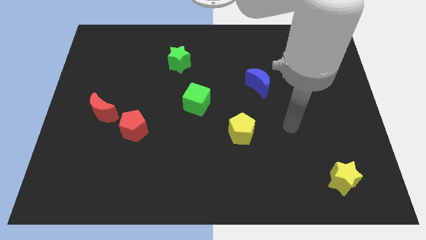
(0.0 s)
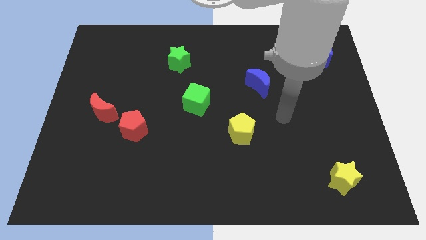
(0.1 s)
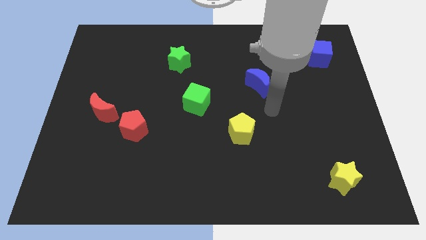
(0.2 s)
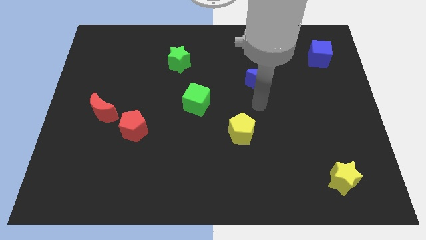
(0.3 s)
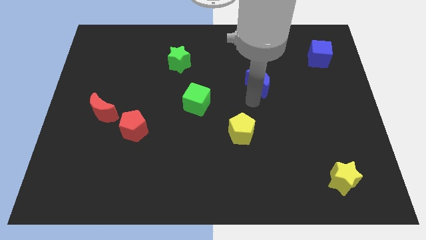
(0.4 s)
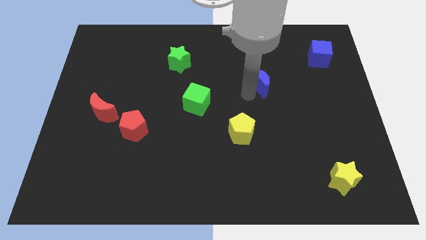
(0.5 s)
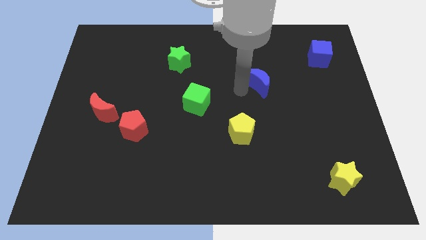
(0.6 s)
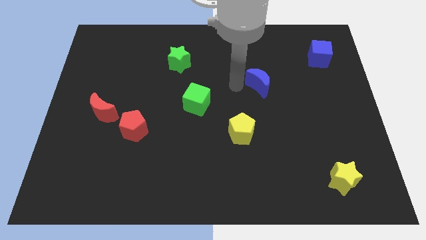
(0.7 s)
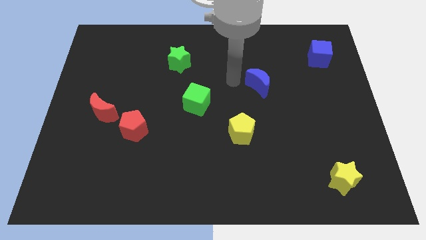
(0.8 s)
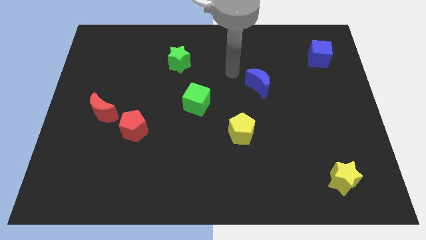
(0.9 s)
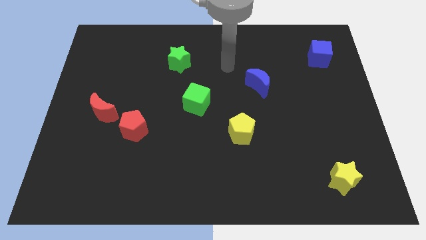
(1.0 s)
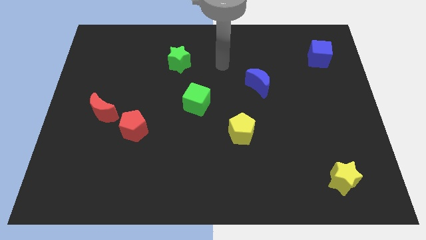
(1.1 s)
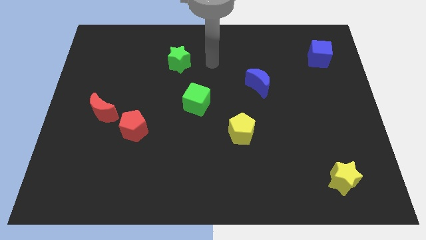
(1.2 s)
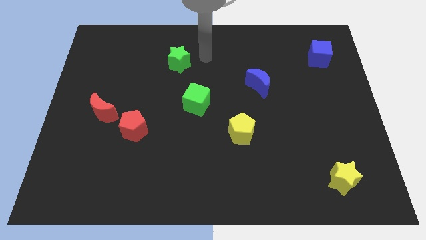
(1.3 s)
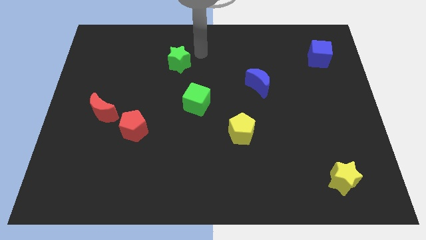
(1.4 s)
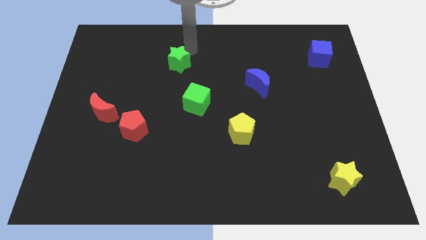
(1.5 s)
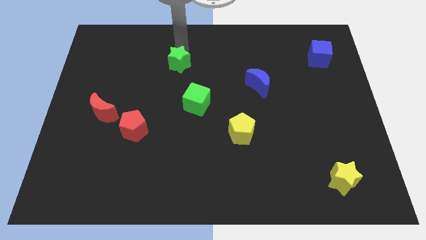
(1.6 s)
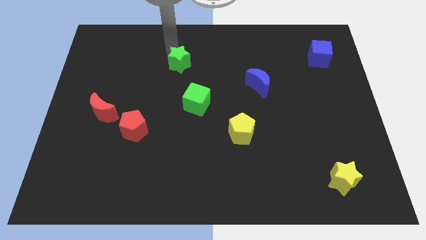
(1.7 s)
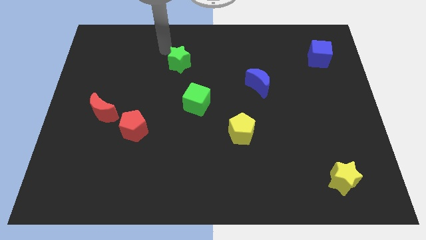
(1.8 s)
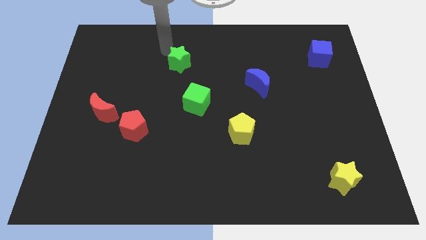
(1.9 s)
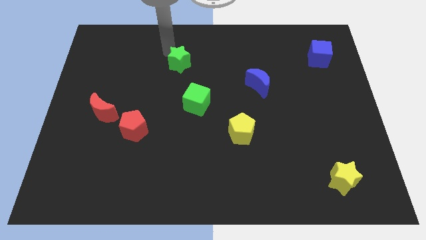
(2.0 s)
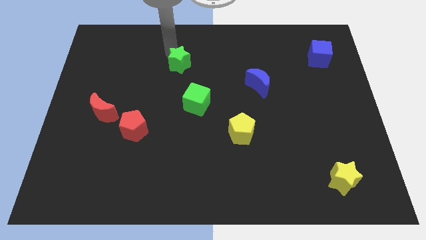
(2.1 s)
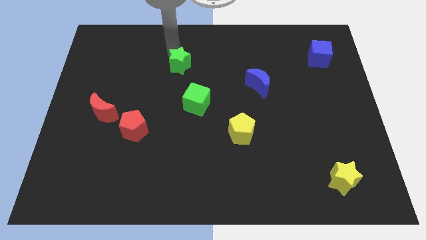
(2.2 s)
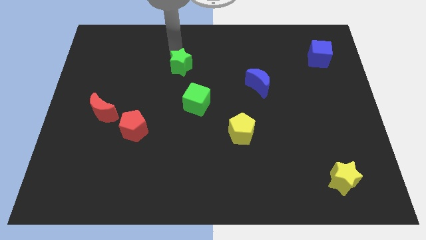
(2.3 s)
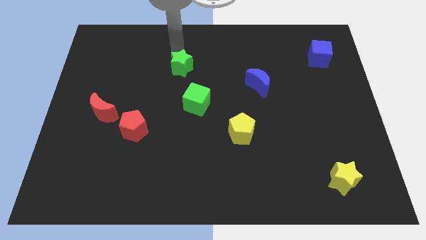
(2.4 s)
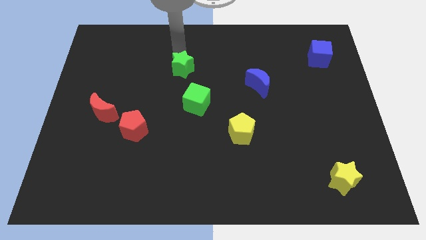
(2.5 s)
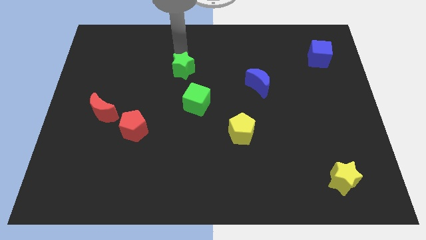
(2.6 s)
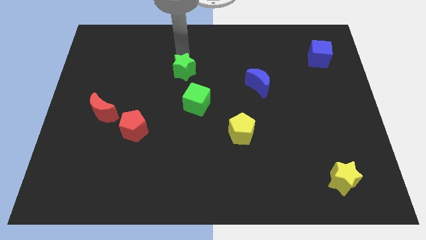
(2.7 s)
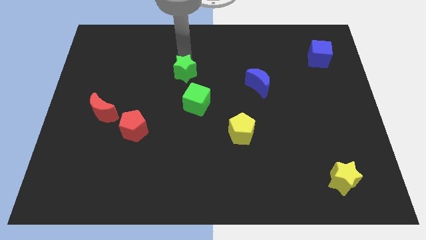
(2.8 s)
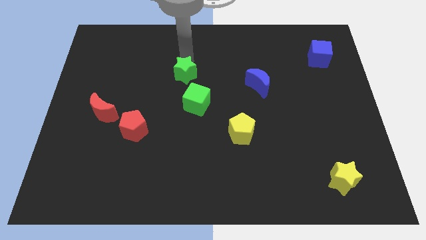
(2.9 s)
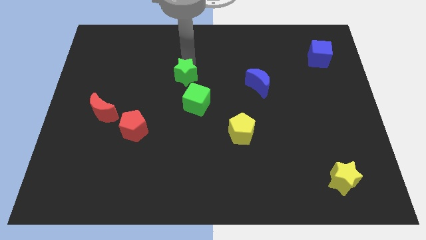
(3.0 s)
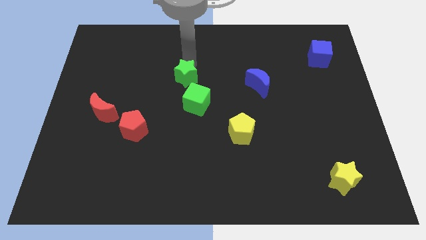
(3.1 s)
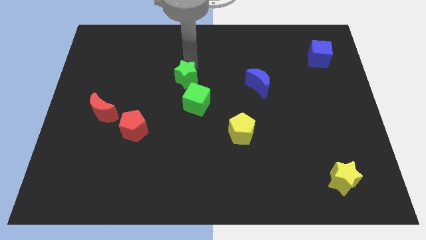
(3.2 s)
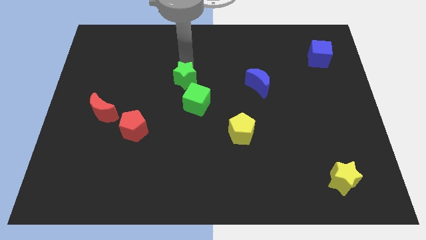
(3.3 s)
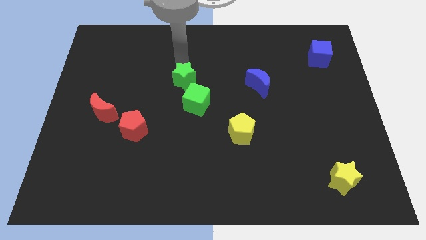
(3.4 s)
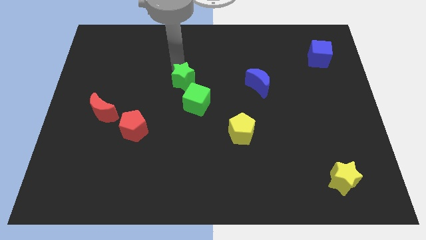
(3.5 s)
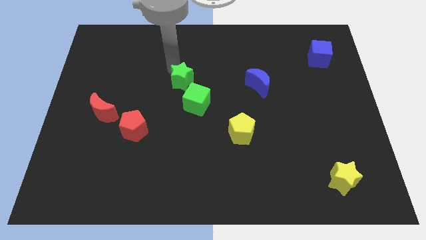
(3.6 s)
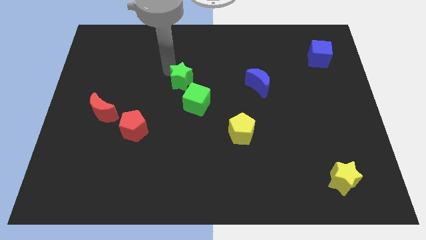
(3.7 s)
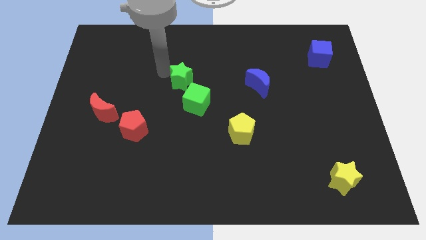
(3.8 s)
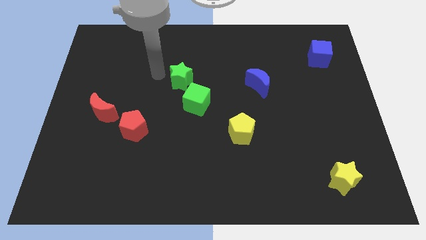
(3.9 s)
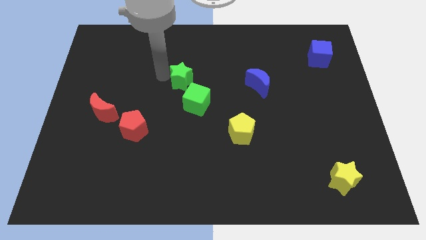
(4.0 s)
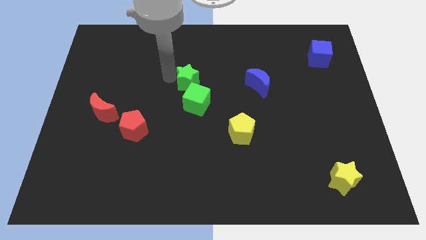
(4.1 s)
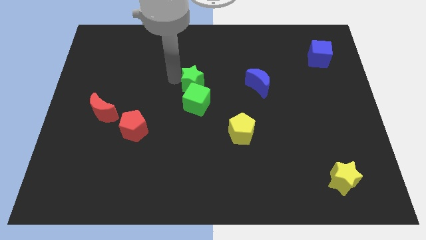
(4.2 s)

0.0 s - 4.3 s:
slide the green star a little downwards and to the right diagonally

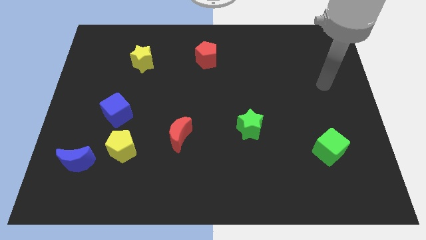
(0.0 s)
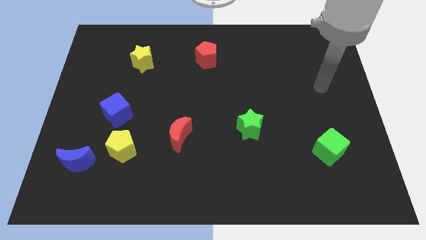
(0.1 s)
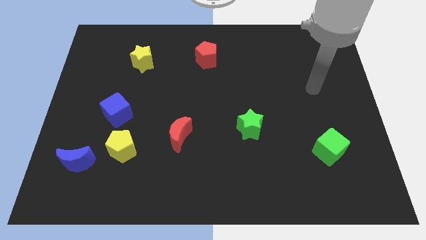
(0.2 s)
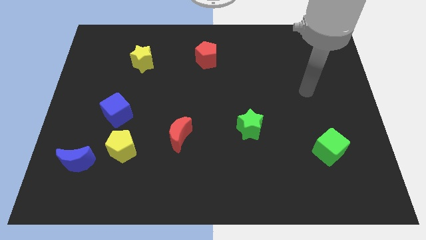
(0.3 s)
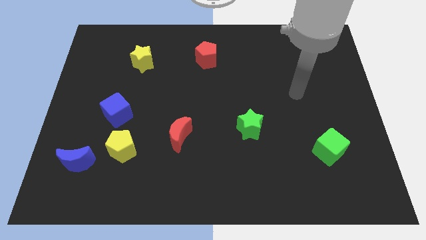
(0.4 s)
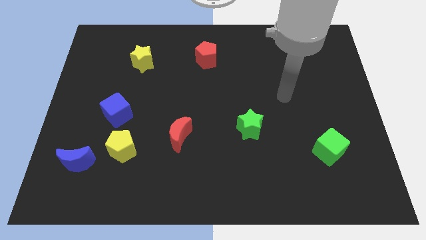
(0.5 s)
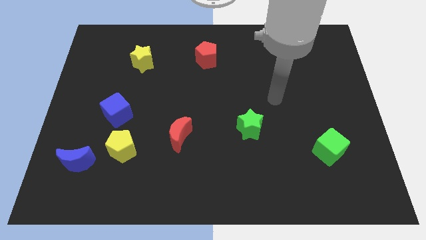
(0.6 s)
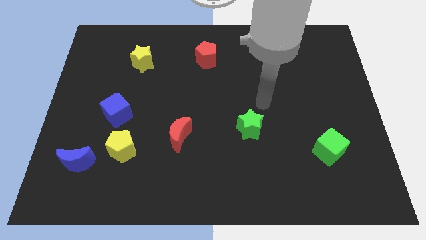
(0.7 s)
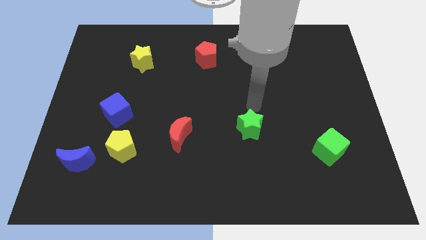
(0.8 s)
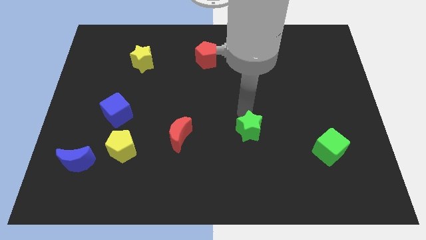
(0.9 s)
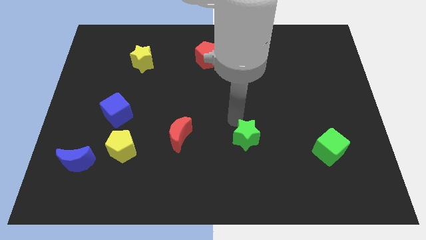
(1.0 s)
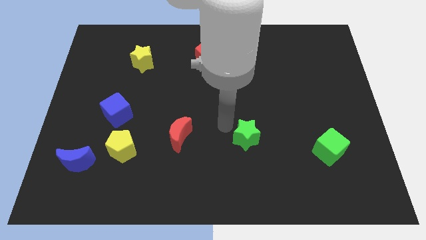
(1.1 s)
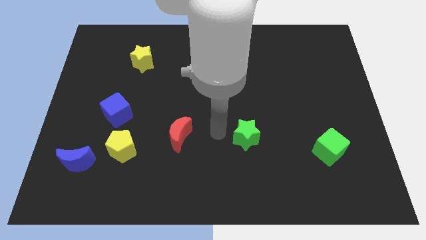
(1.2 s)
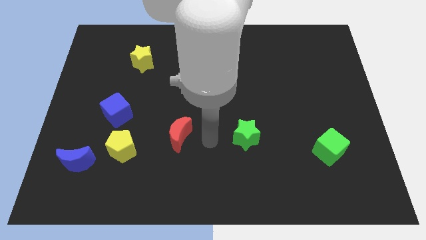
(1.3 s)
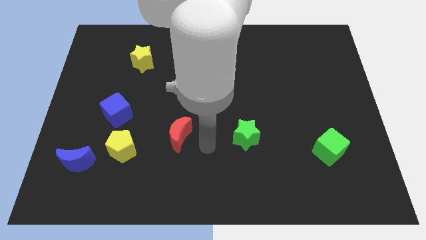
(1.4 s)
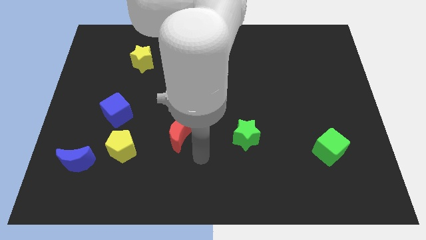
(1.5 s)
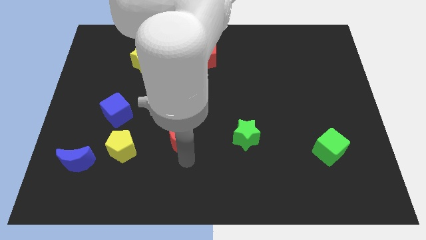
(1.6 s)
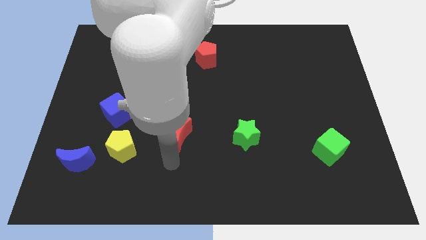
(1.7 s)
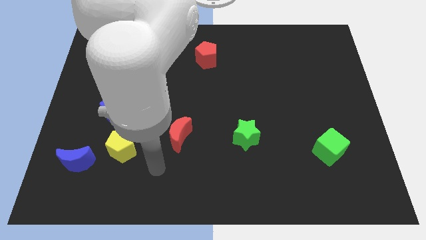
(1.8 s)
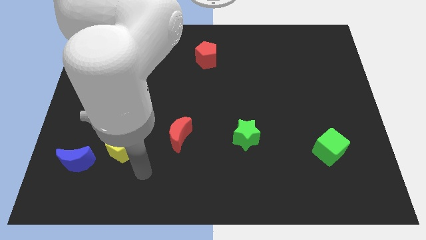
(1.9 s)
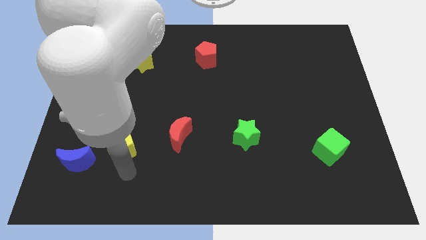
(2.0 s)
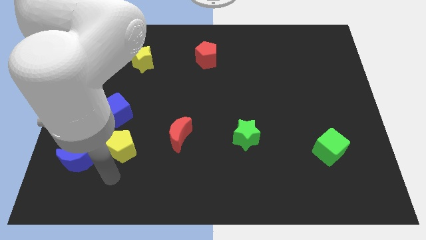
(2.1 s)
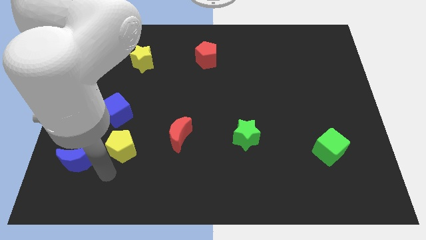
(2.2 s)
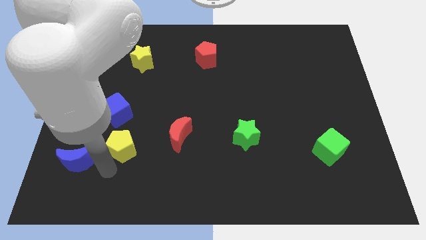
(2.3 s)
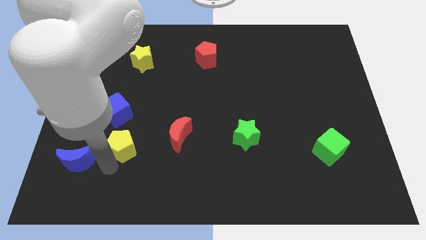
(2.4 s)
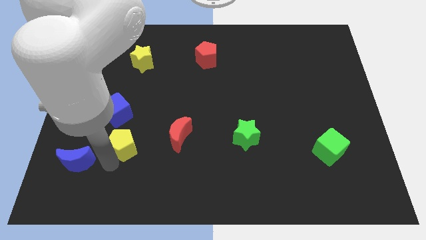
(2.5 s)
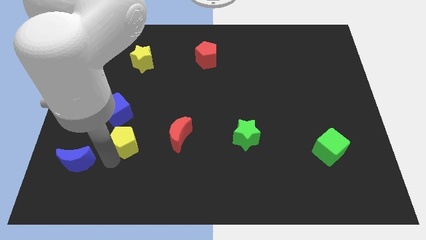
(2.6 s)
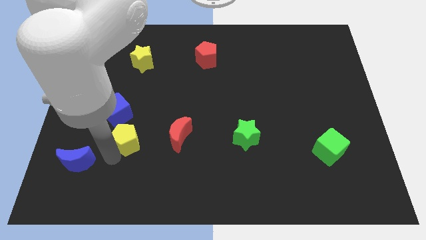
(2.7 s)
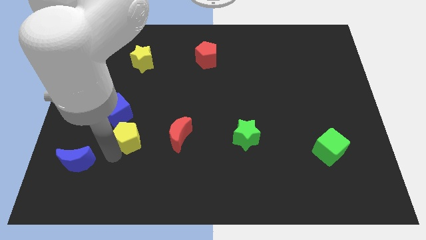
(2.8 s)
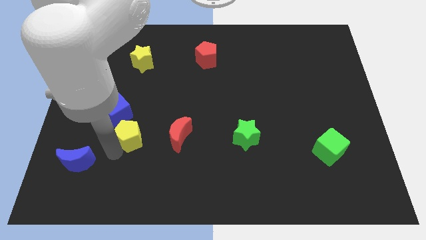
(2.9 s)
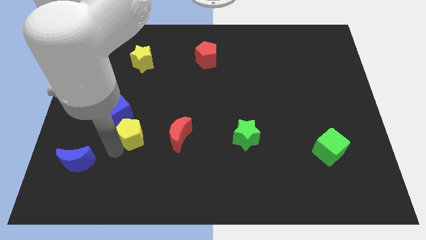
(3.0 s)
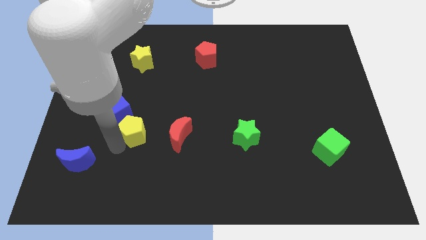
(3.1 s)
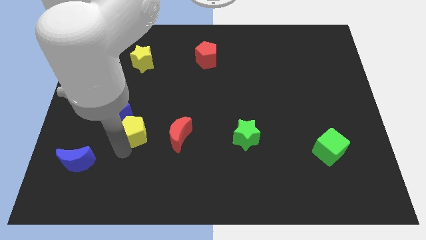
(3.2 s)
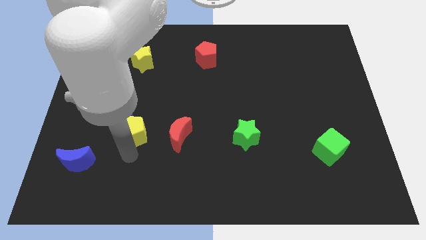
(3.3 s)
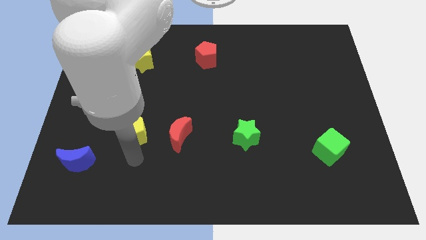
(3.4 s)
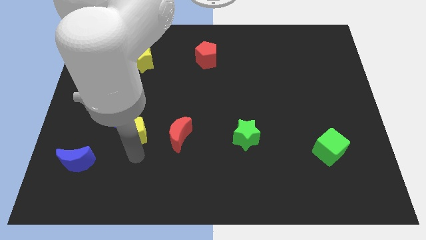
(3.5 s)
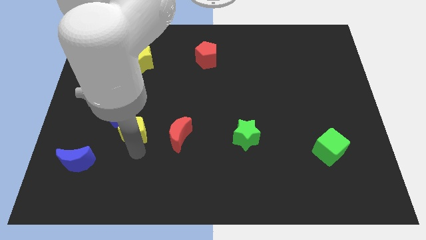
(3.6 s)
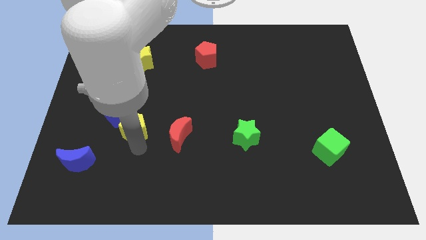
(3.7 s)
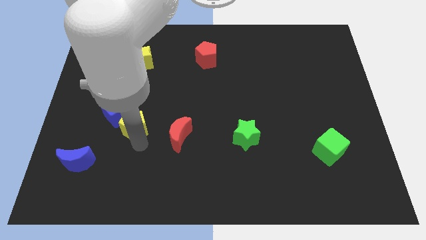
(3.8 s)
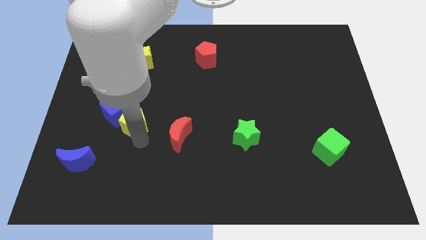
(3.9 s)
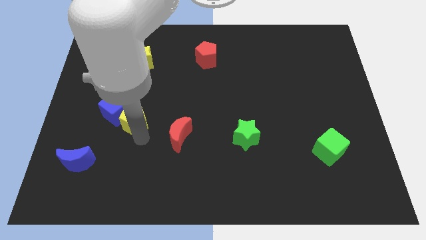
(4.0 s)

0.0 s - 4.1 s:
slightly move the yellow pentagon up
